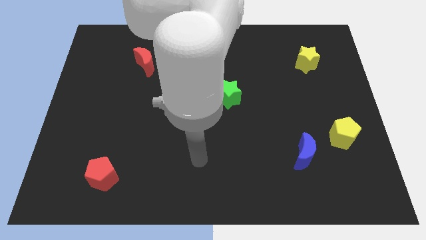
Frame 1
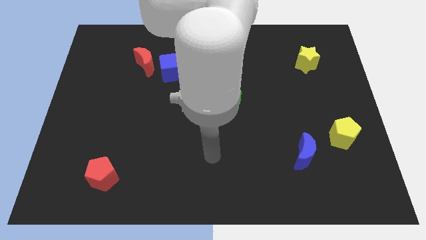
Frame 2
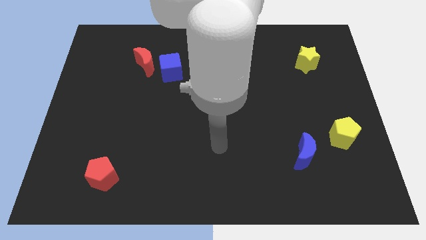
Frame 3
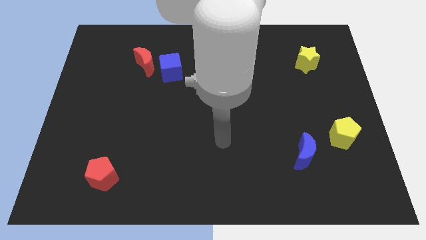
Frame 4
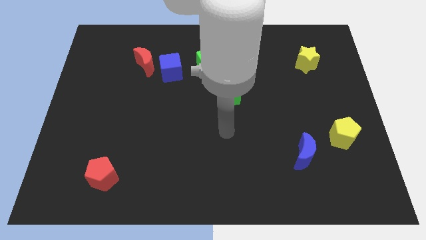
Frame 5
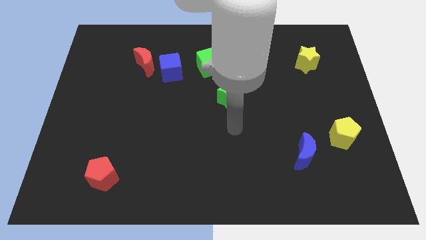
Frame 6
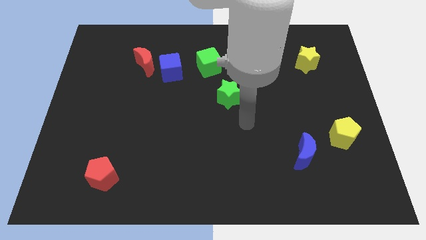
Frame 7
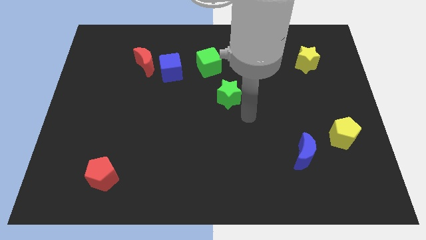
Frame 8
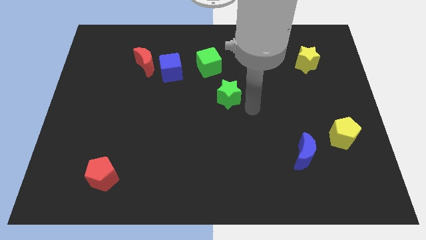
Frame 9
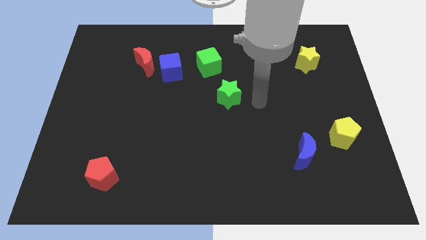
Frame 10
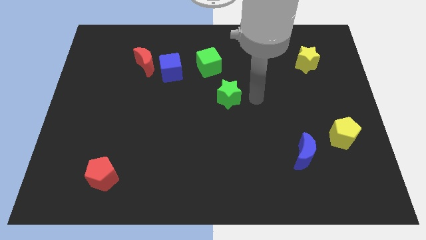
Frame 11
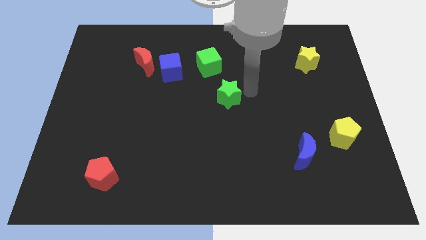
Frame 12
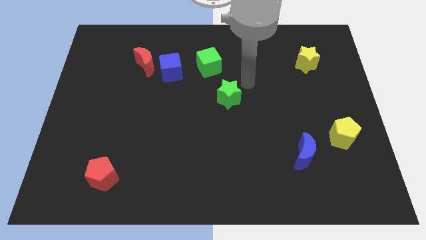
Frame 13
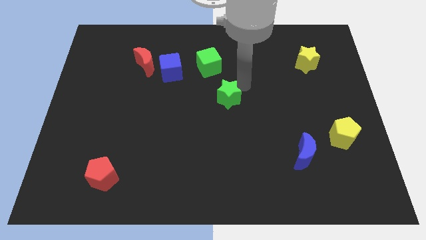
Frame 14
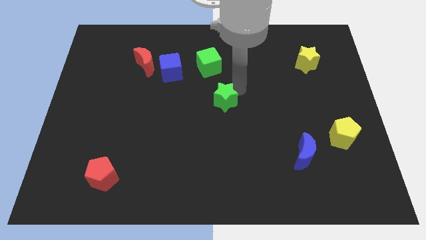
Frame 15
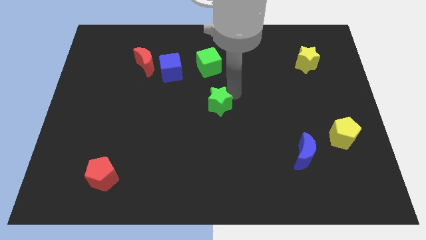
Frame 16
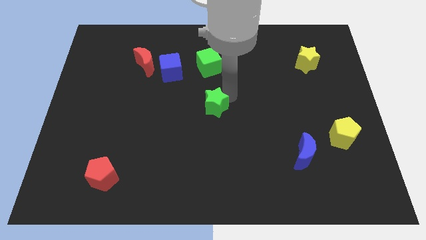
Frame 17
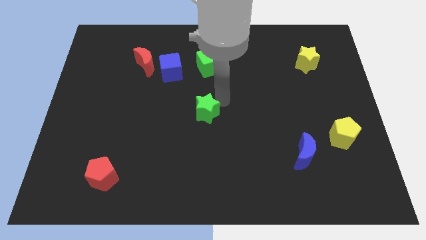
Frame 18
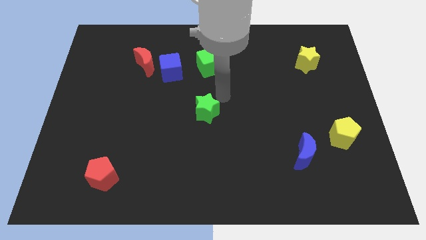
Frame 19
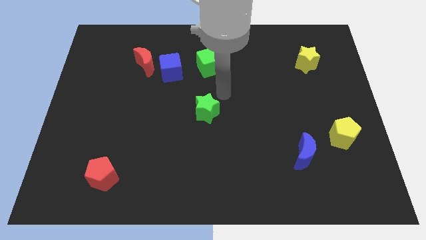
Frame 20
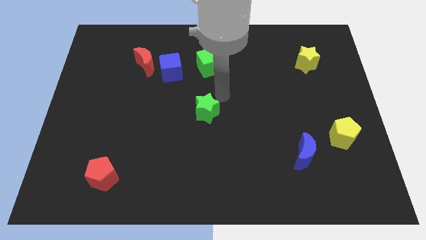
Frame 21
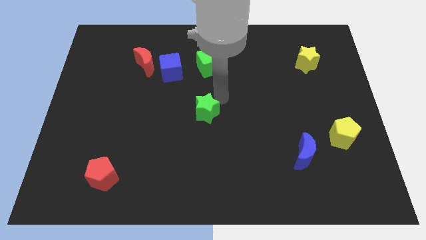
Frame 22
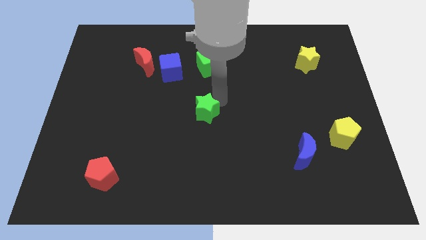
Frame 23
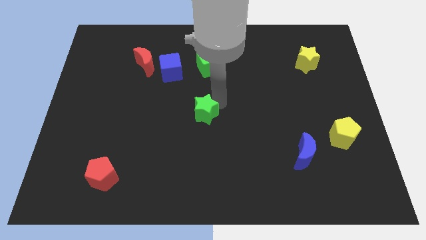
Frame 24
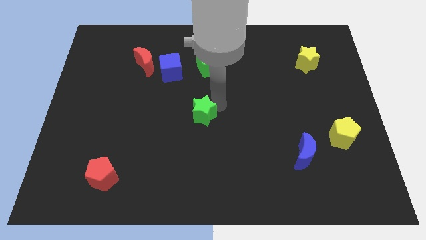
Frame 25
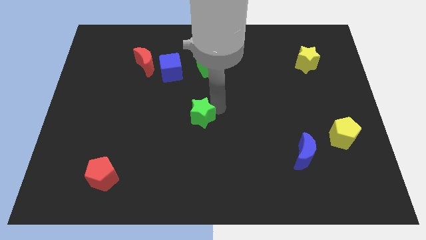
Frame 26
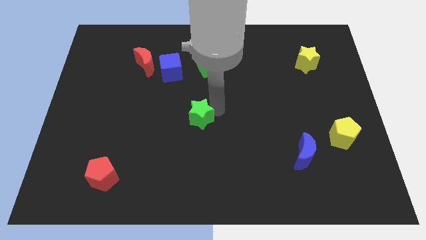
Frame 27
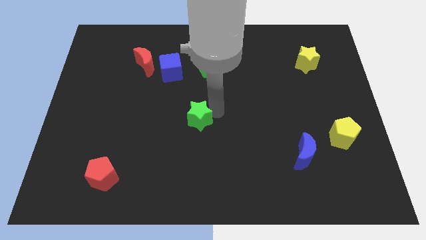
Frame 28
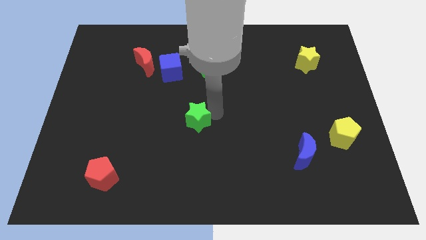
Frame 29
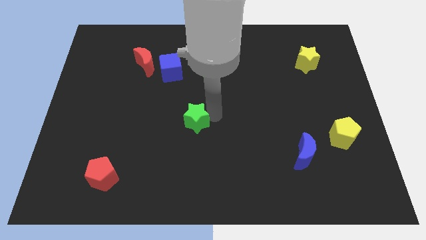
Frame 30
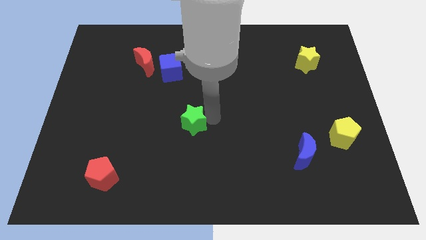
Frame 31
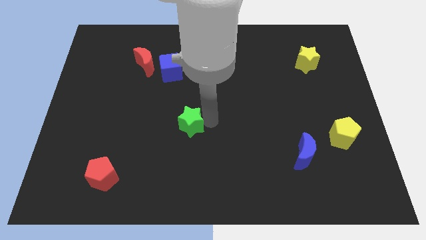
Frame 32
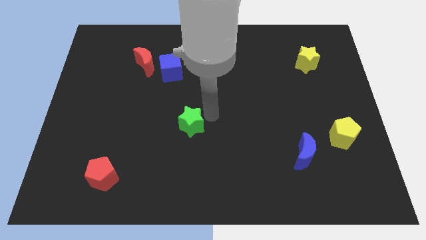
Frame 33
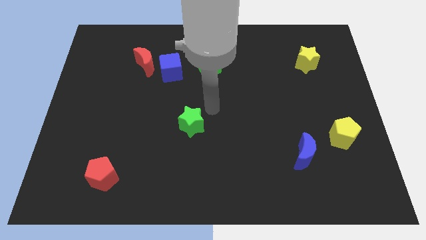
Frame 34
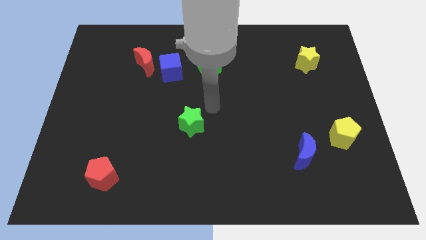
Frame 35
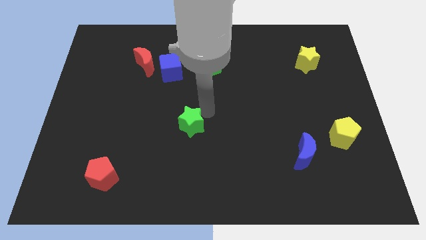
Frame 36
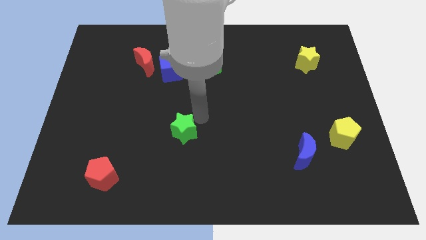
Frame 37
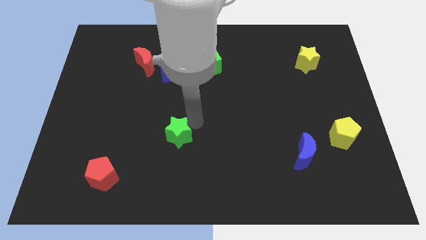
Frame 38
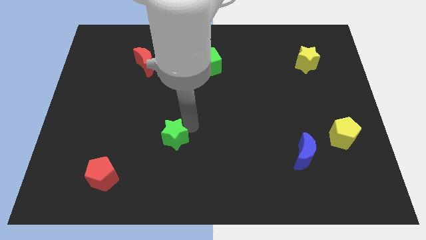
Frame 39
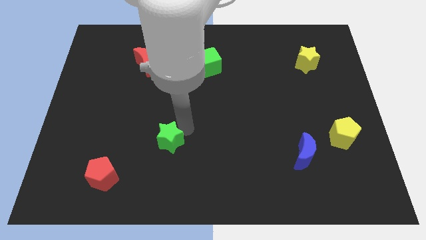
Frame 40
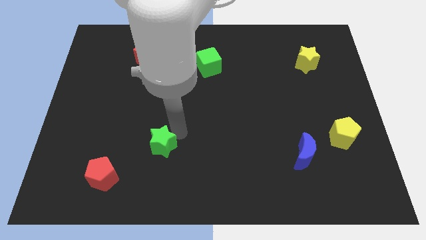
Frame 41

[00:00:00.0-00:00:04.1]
slide the green star downwards and to the left diagonally

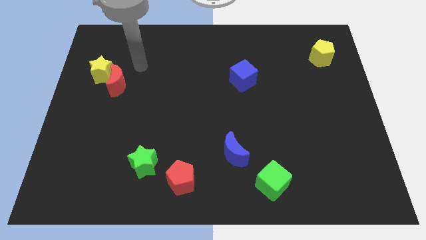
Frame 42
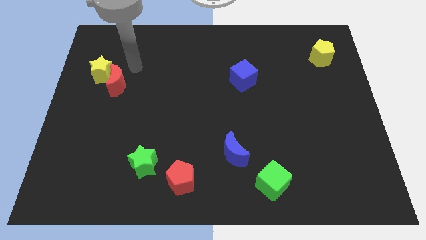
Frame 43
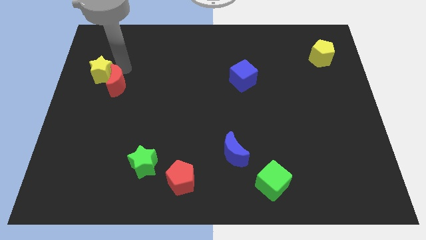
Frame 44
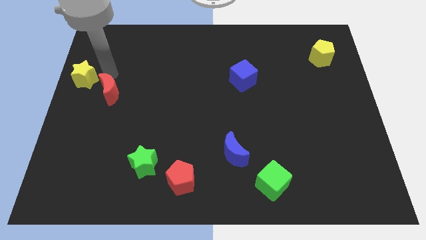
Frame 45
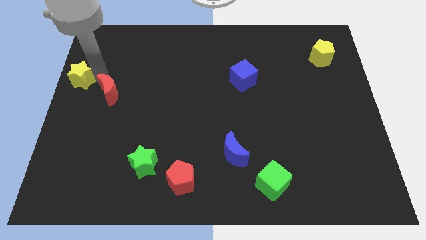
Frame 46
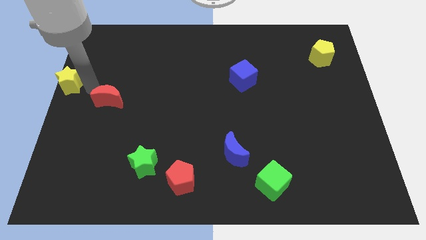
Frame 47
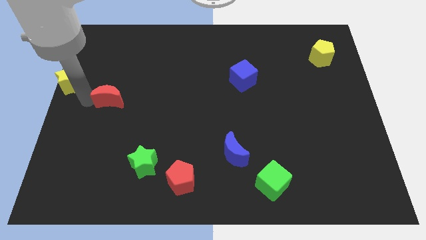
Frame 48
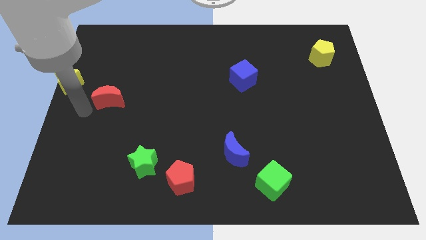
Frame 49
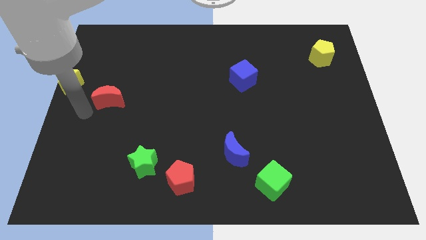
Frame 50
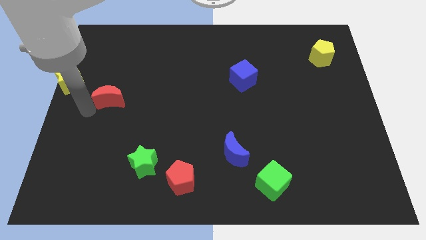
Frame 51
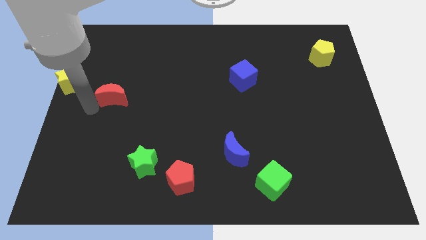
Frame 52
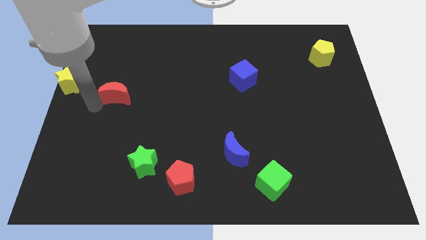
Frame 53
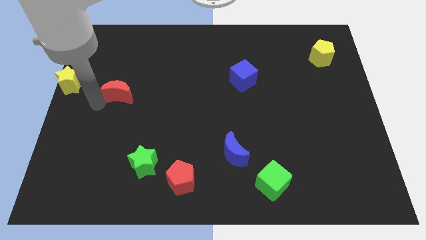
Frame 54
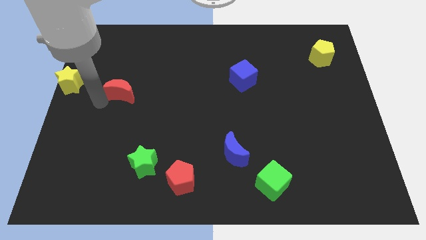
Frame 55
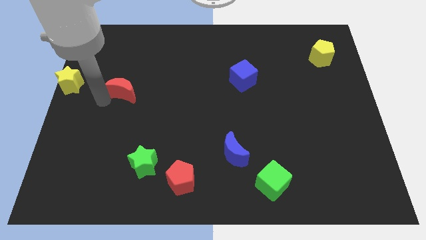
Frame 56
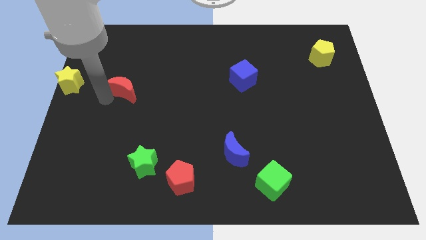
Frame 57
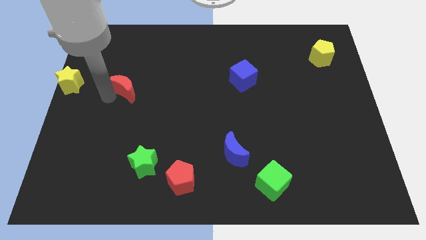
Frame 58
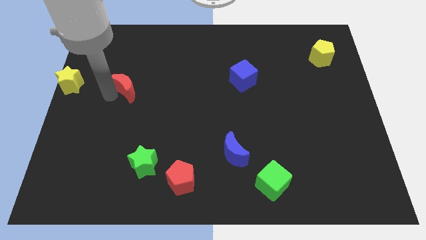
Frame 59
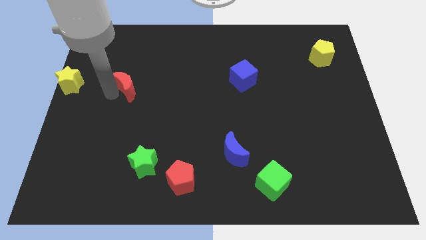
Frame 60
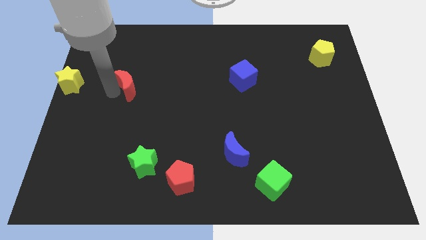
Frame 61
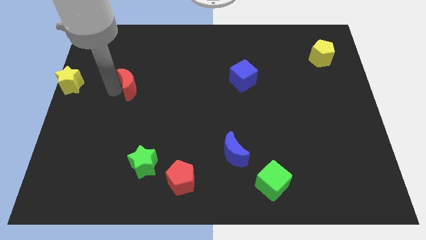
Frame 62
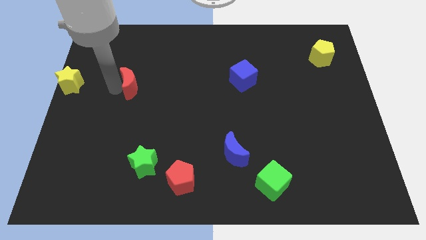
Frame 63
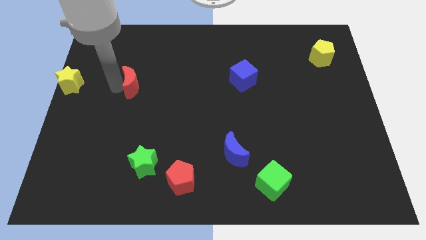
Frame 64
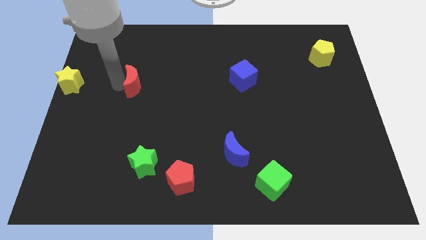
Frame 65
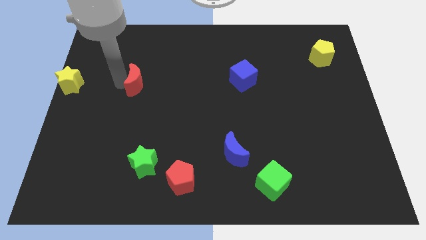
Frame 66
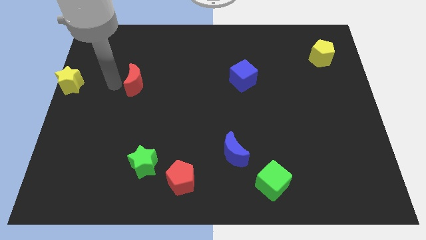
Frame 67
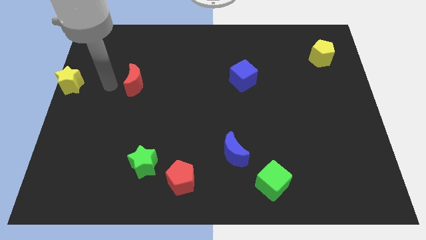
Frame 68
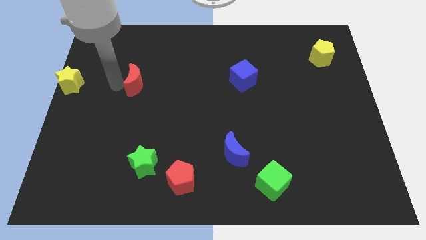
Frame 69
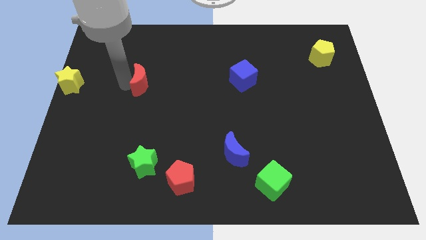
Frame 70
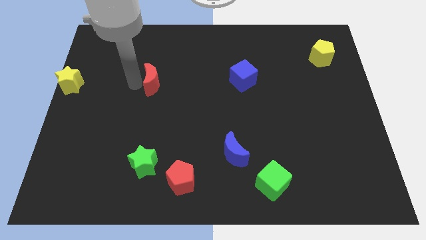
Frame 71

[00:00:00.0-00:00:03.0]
slide the red moon a little right

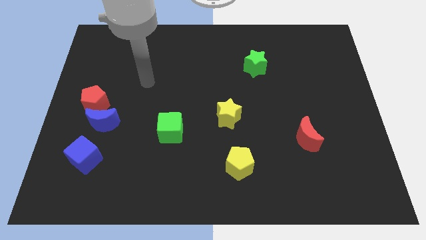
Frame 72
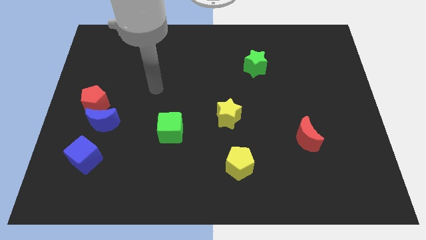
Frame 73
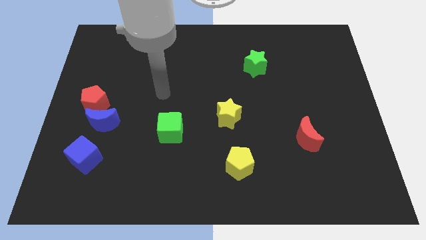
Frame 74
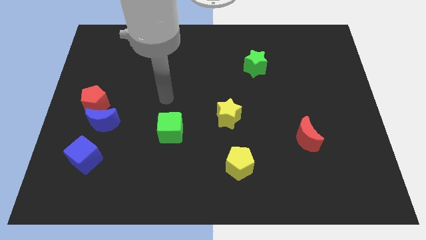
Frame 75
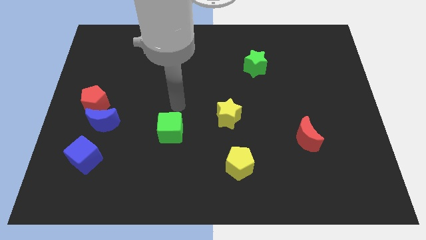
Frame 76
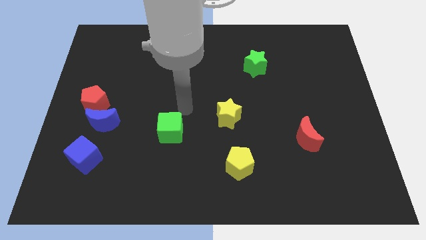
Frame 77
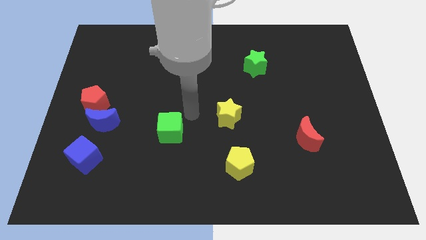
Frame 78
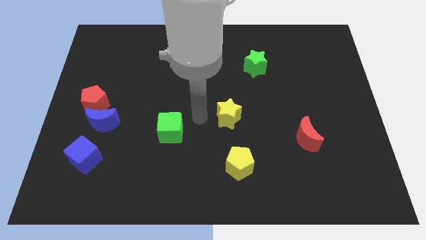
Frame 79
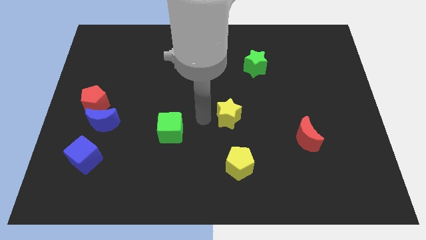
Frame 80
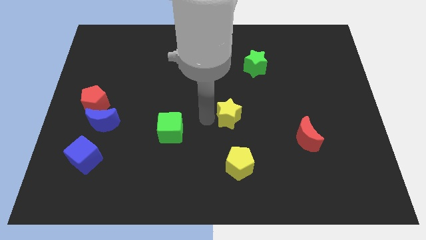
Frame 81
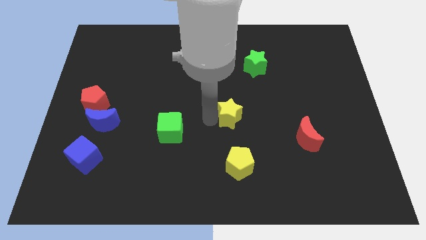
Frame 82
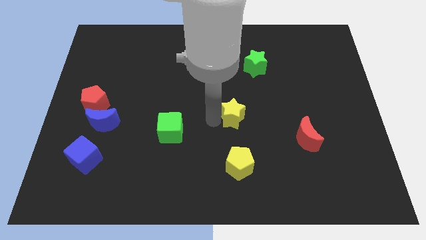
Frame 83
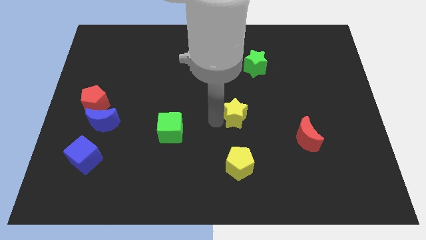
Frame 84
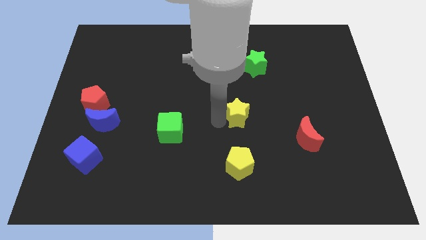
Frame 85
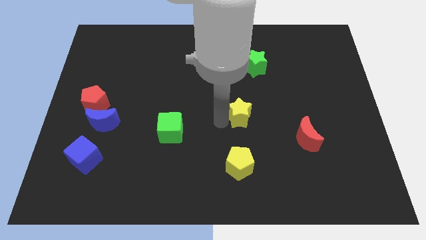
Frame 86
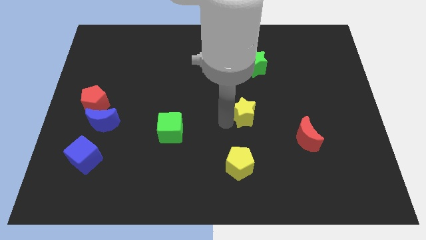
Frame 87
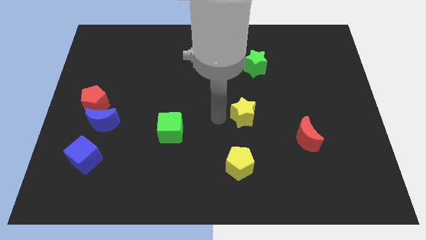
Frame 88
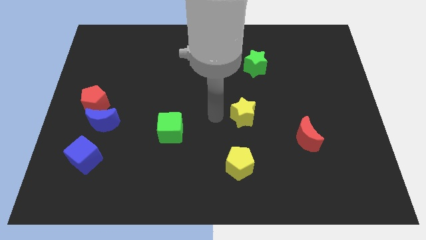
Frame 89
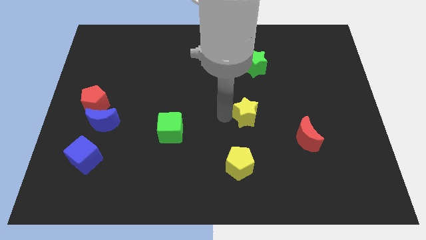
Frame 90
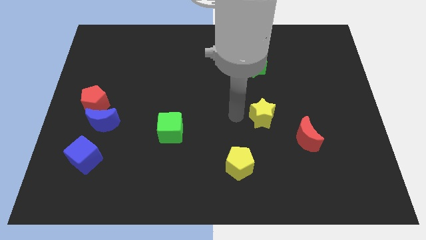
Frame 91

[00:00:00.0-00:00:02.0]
slightly move the yellow star right
